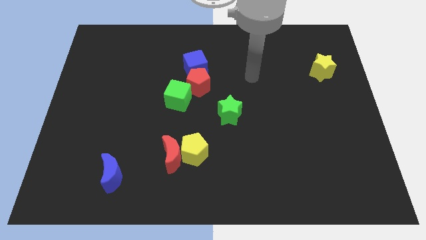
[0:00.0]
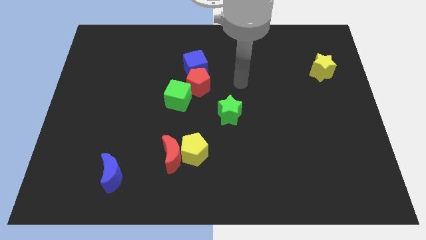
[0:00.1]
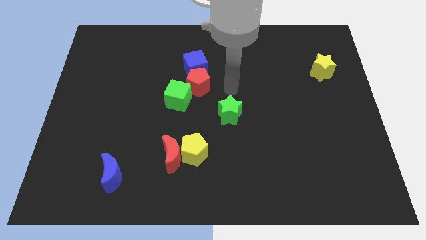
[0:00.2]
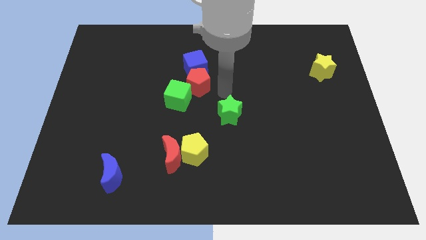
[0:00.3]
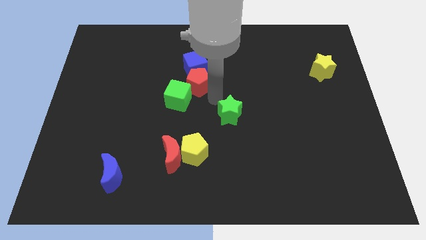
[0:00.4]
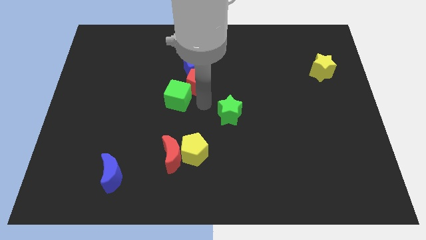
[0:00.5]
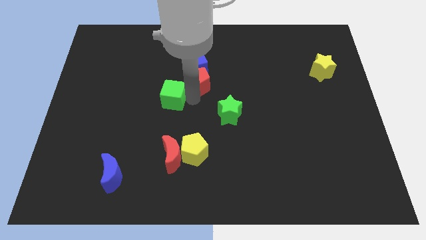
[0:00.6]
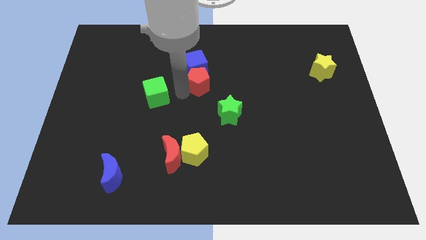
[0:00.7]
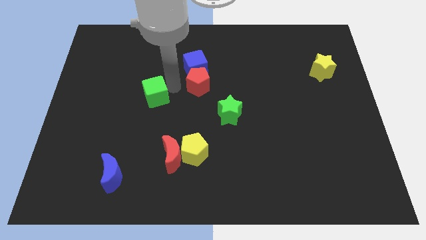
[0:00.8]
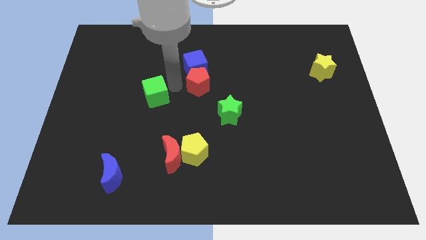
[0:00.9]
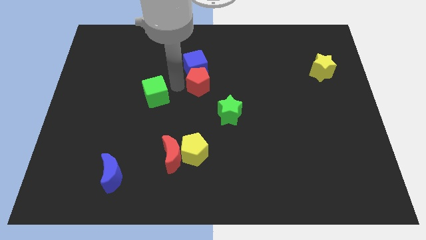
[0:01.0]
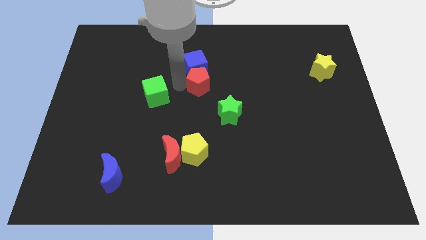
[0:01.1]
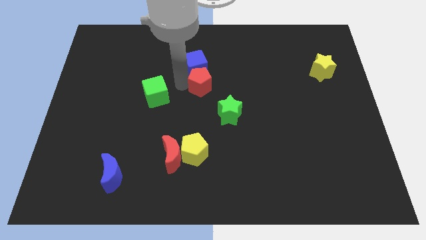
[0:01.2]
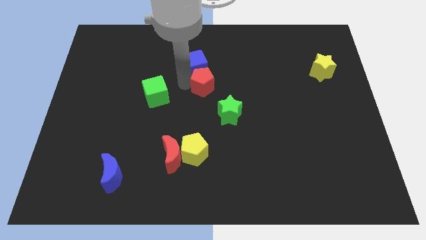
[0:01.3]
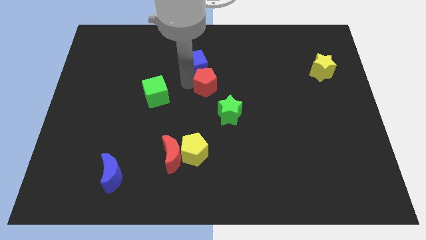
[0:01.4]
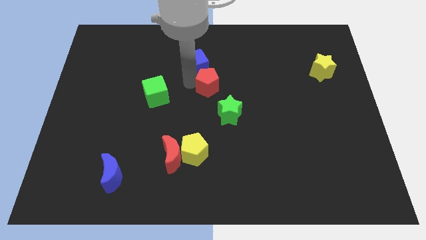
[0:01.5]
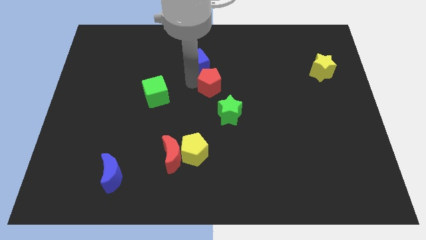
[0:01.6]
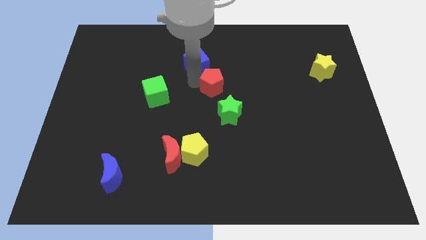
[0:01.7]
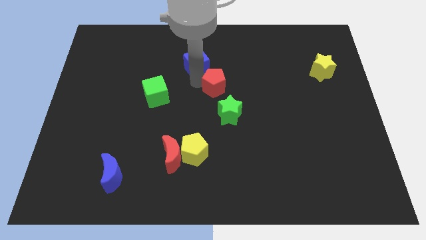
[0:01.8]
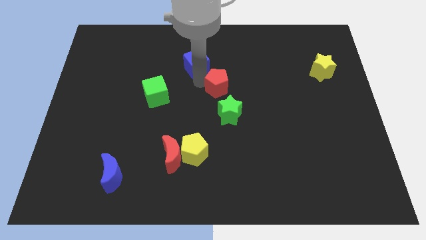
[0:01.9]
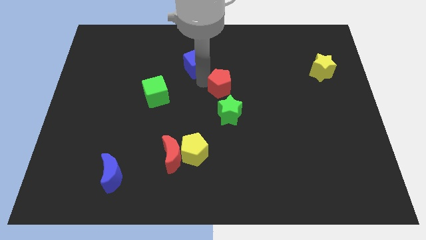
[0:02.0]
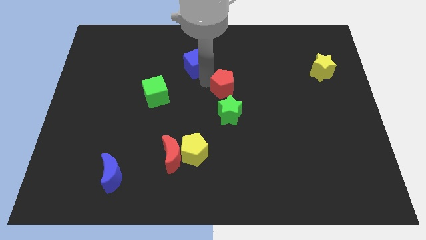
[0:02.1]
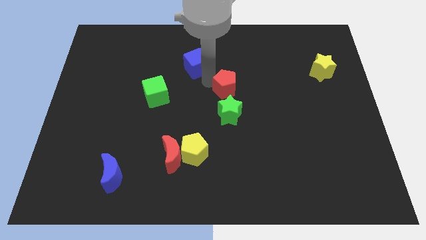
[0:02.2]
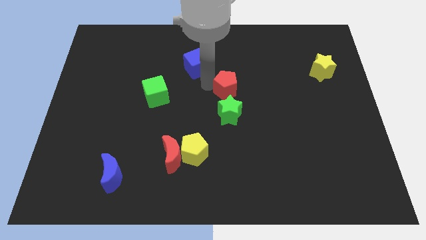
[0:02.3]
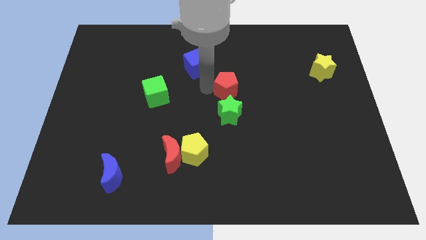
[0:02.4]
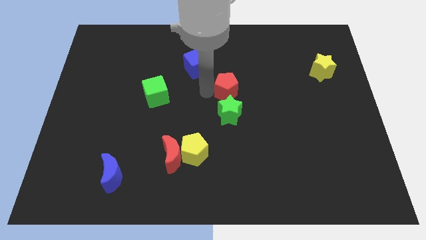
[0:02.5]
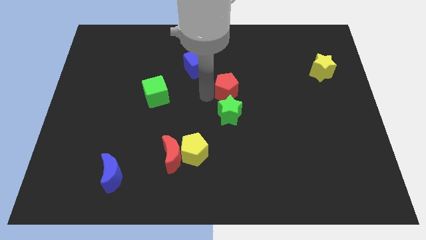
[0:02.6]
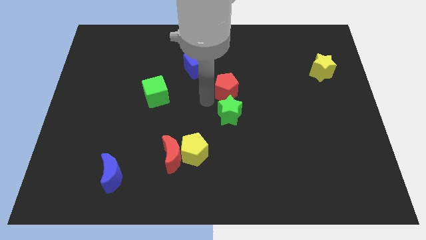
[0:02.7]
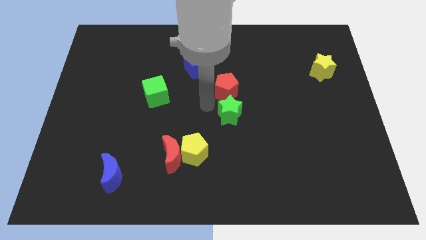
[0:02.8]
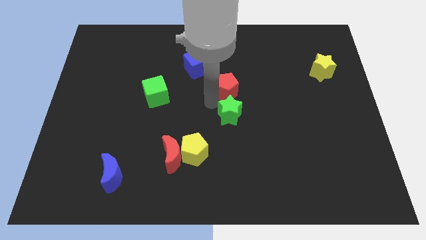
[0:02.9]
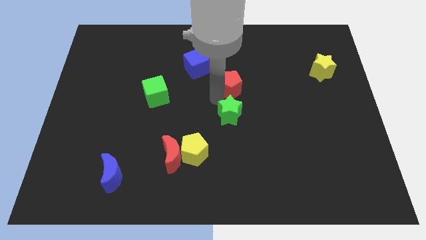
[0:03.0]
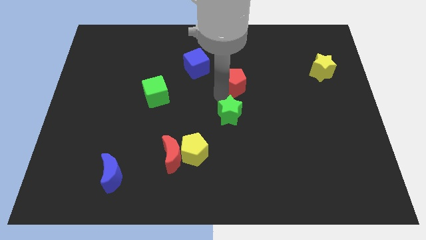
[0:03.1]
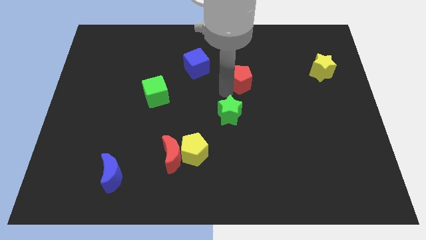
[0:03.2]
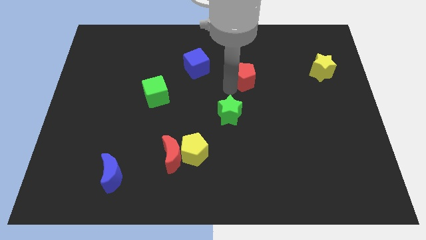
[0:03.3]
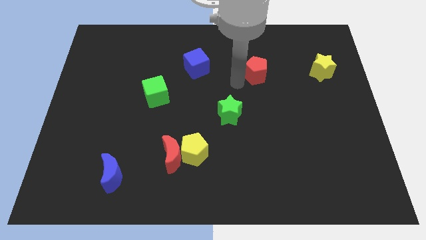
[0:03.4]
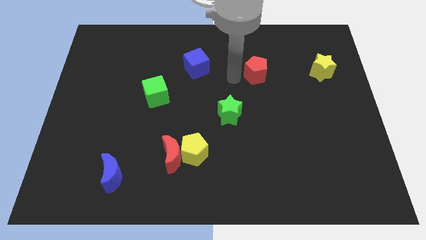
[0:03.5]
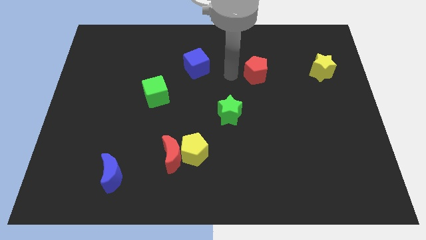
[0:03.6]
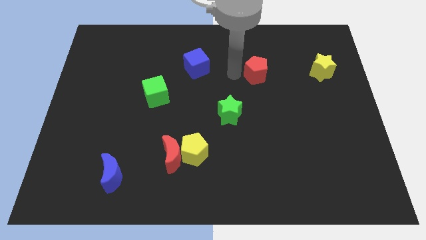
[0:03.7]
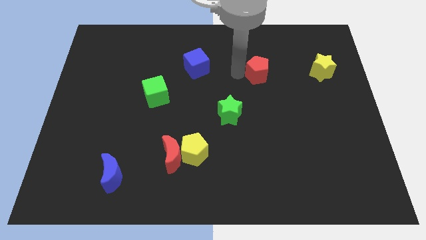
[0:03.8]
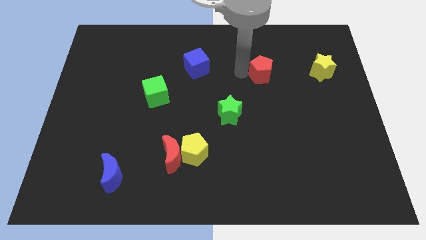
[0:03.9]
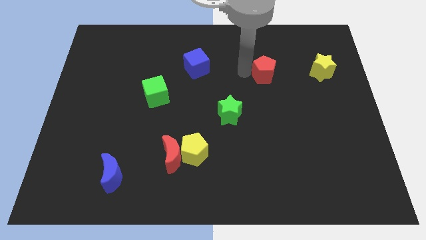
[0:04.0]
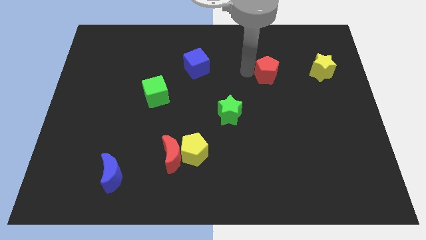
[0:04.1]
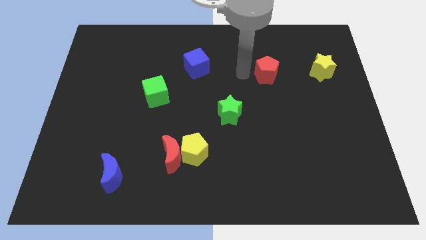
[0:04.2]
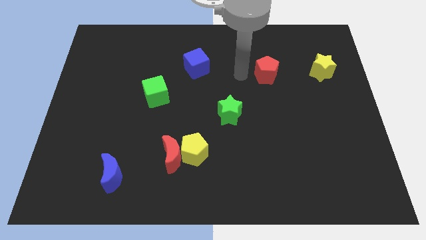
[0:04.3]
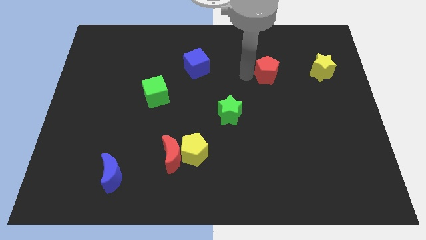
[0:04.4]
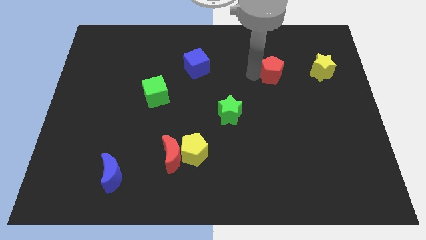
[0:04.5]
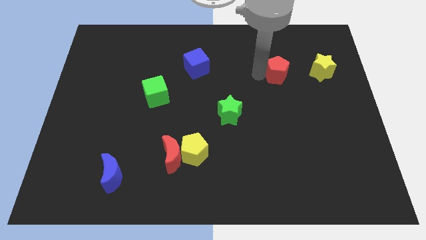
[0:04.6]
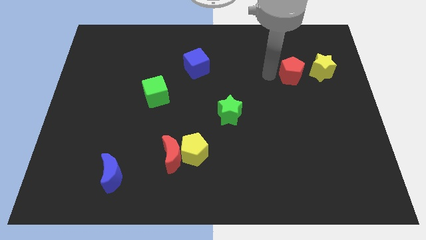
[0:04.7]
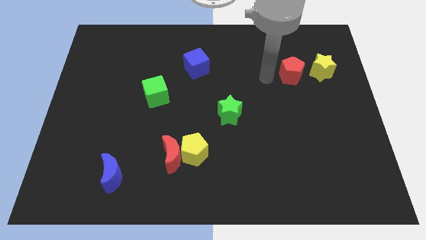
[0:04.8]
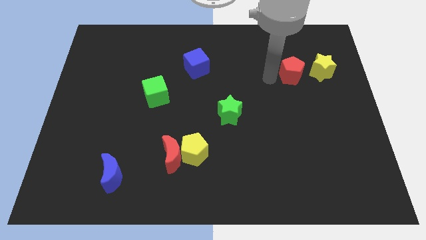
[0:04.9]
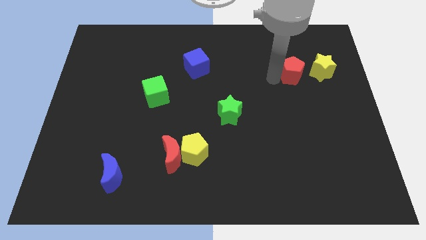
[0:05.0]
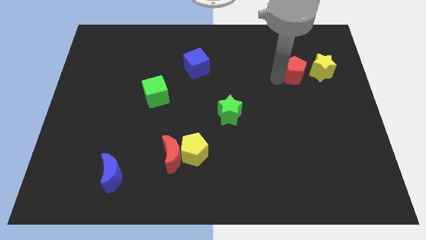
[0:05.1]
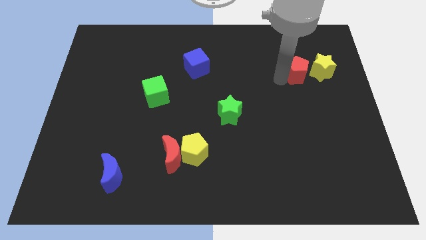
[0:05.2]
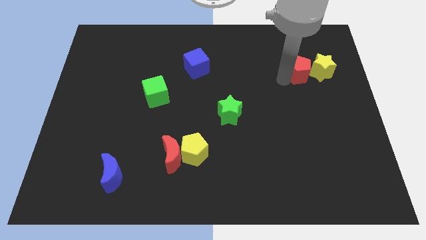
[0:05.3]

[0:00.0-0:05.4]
put the red pentagon towards the yellow star

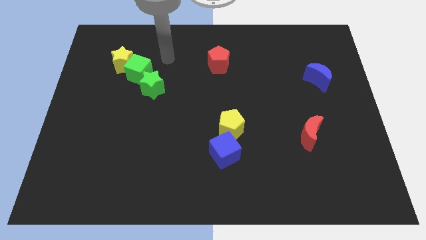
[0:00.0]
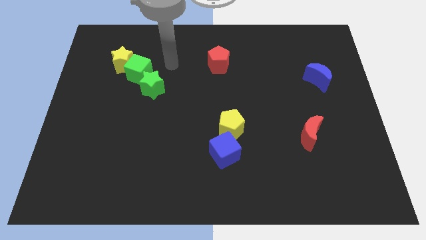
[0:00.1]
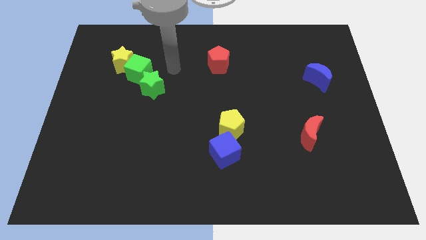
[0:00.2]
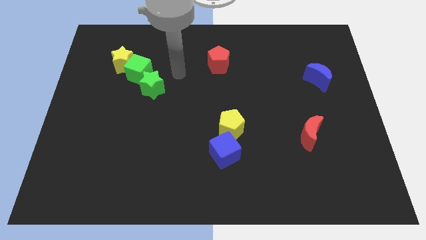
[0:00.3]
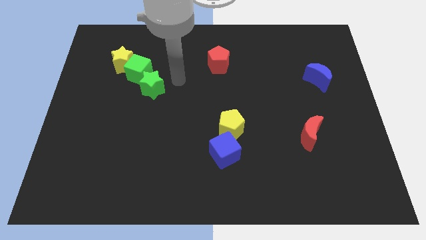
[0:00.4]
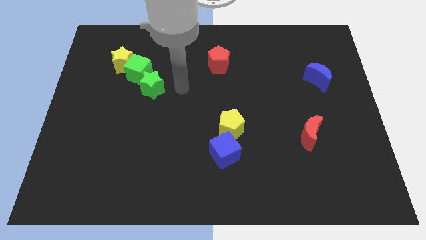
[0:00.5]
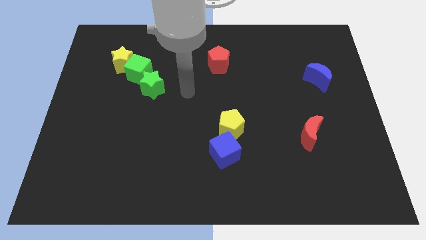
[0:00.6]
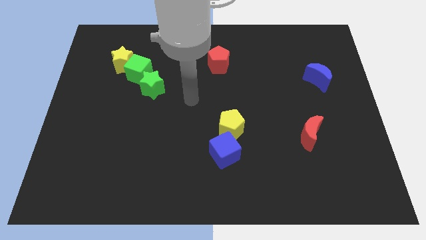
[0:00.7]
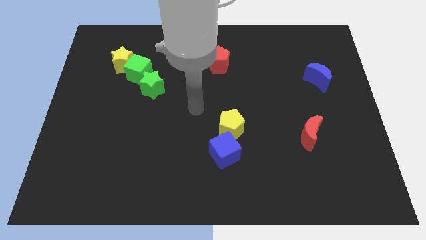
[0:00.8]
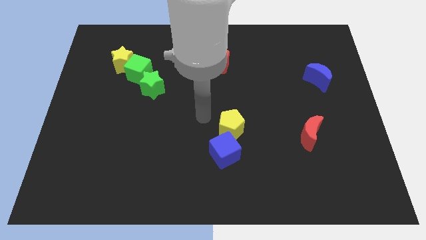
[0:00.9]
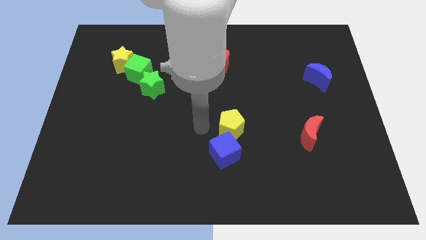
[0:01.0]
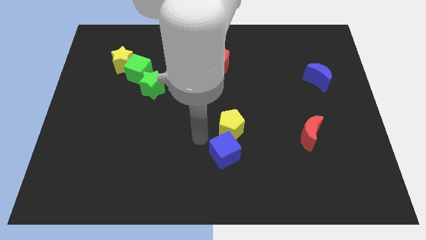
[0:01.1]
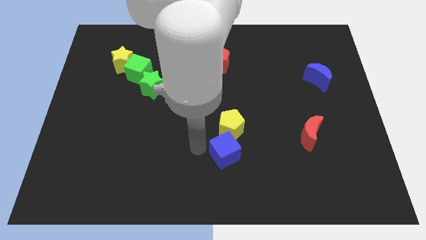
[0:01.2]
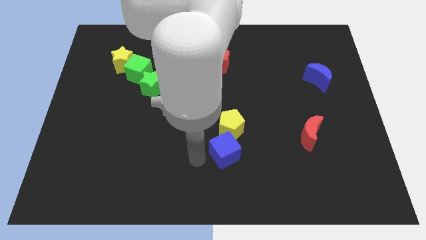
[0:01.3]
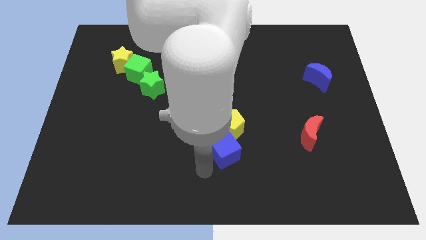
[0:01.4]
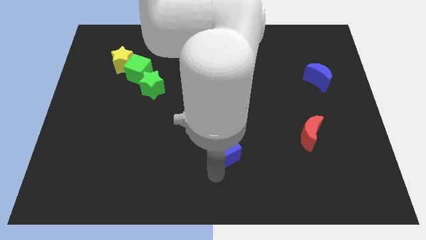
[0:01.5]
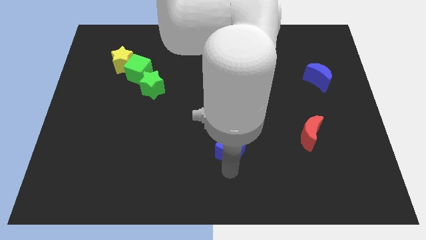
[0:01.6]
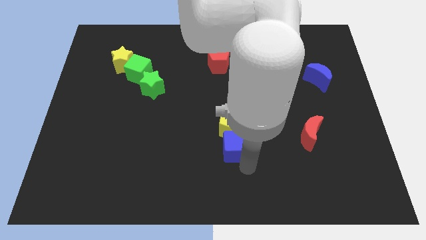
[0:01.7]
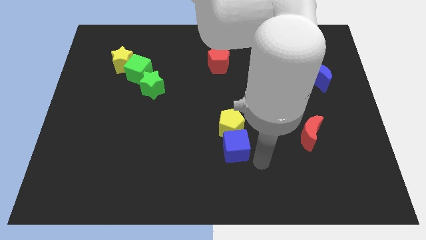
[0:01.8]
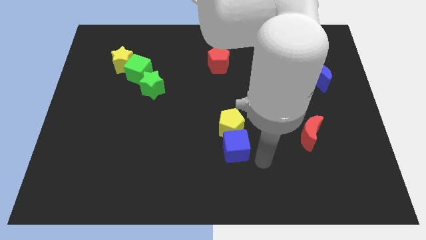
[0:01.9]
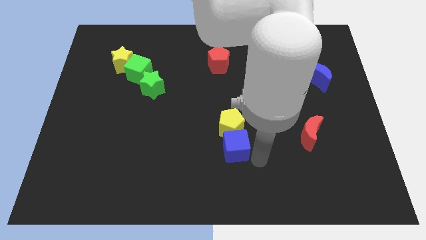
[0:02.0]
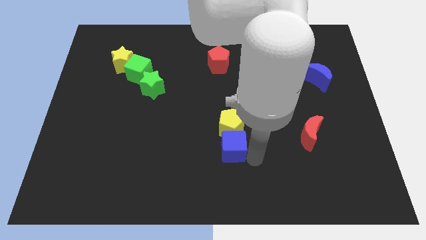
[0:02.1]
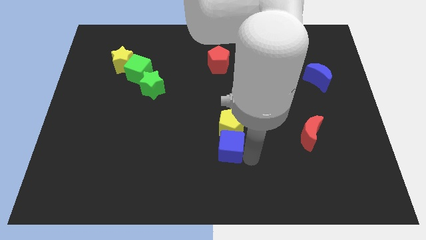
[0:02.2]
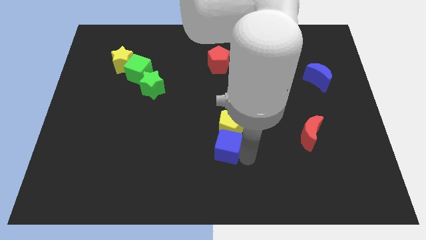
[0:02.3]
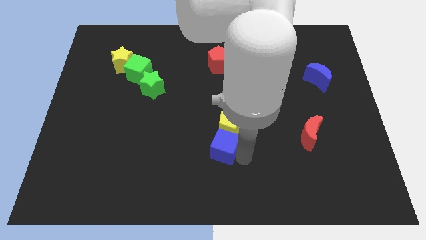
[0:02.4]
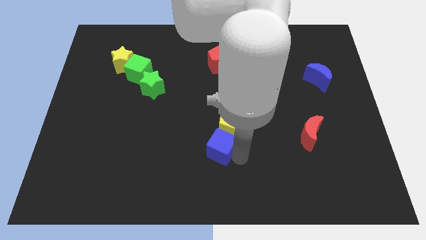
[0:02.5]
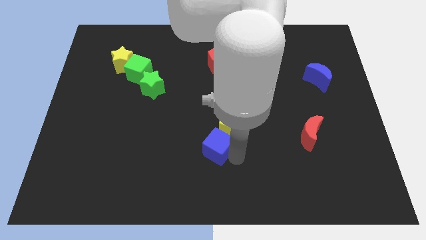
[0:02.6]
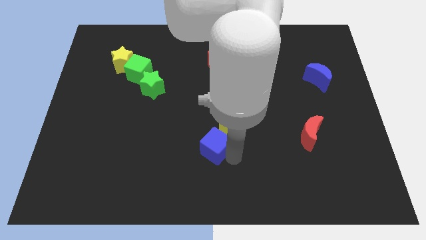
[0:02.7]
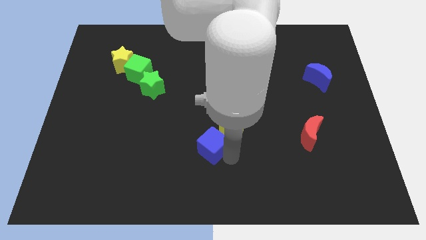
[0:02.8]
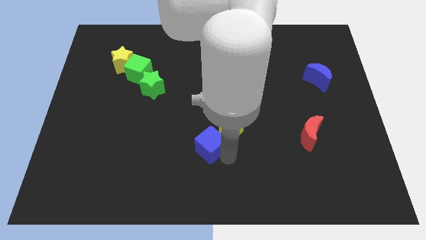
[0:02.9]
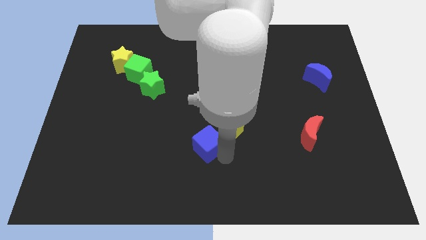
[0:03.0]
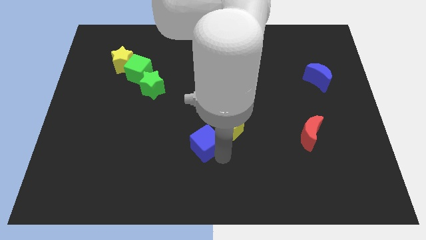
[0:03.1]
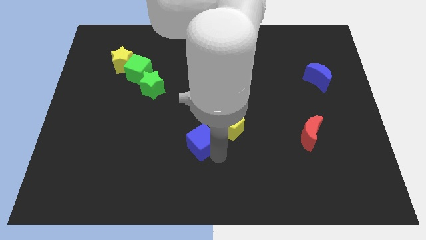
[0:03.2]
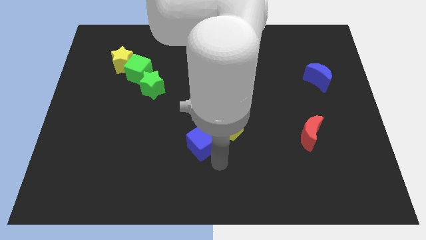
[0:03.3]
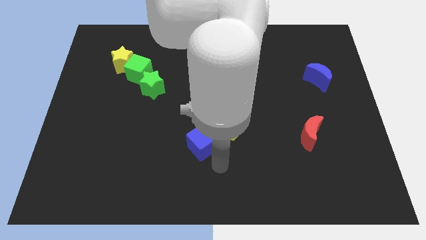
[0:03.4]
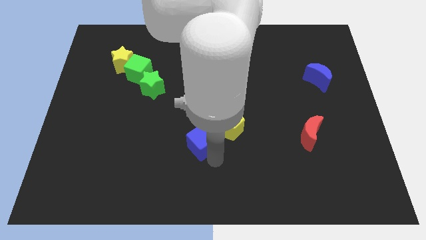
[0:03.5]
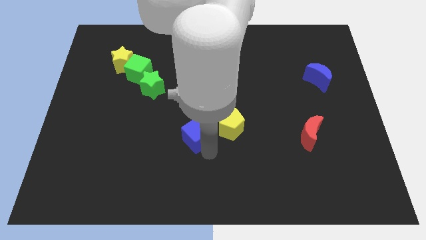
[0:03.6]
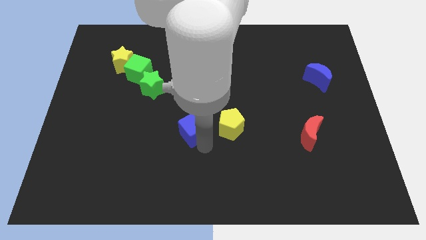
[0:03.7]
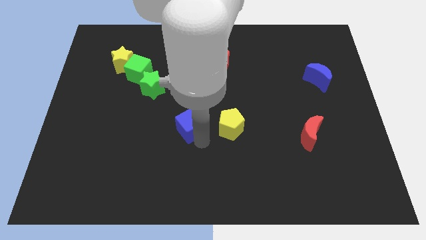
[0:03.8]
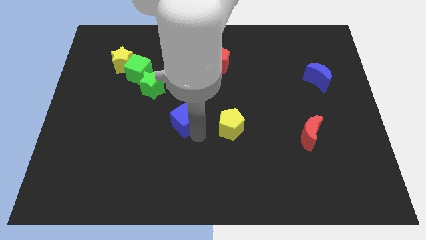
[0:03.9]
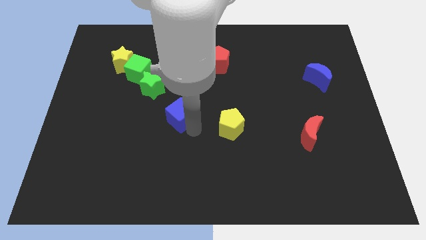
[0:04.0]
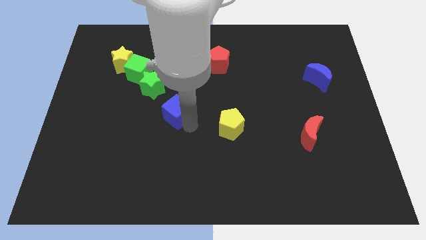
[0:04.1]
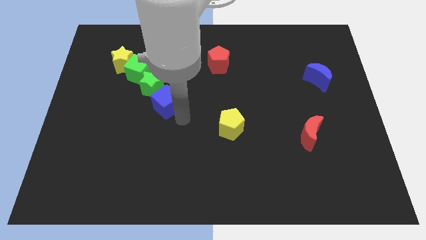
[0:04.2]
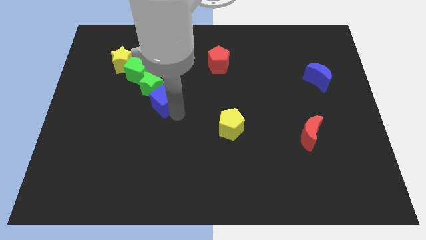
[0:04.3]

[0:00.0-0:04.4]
move the blue cube to the green star
